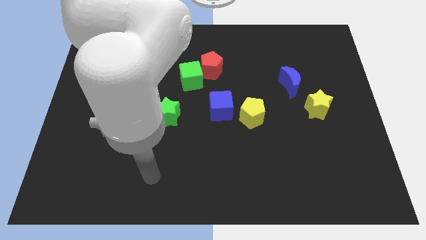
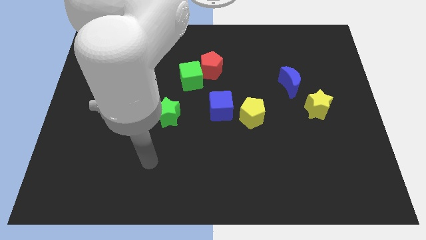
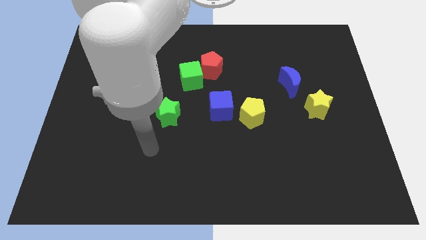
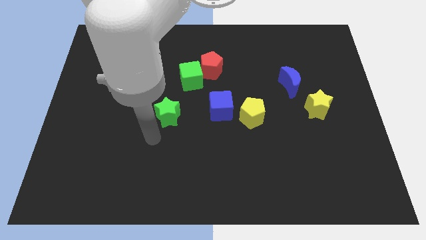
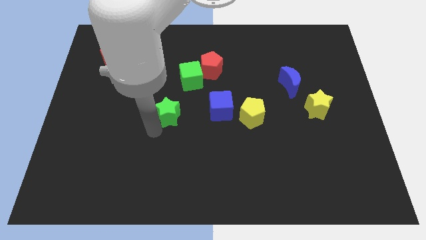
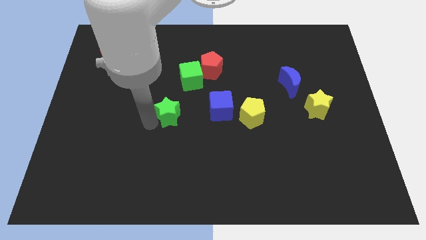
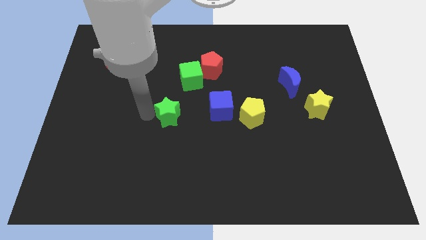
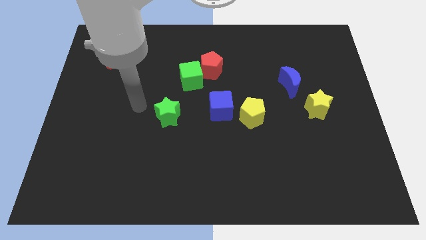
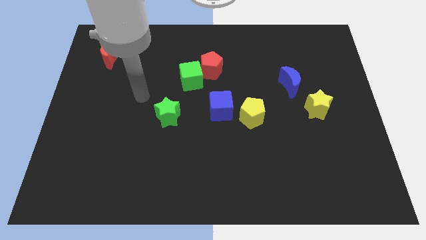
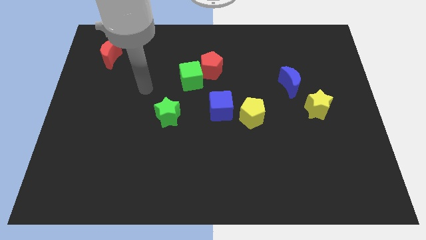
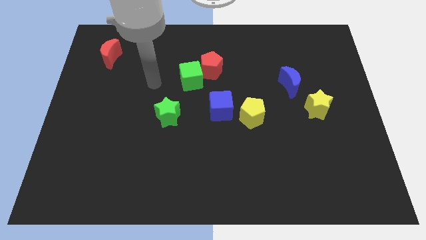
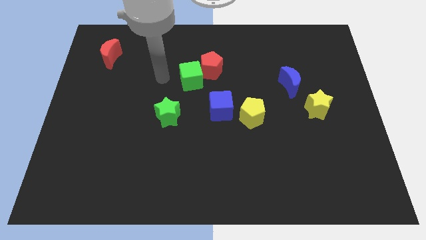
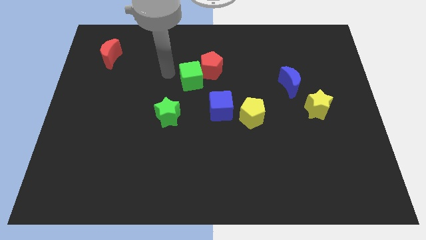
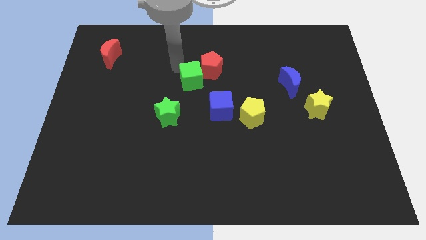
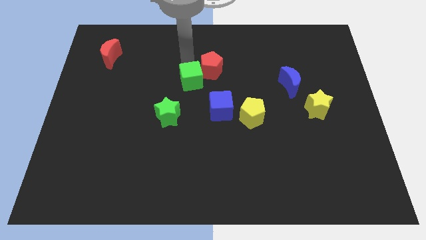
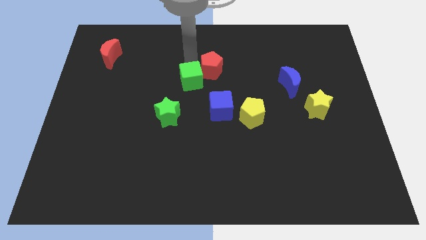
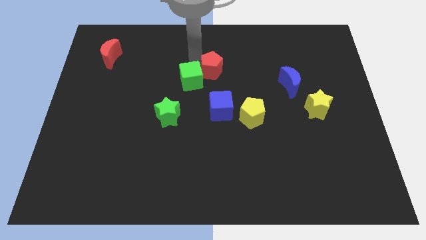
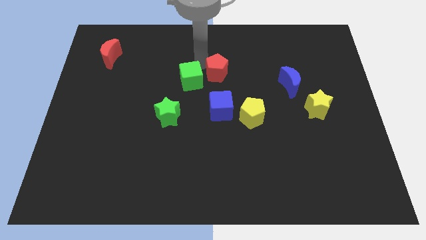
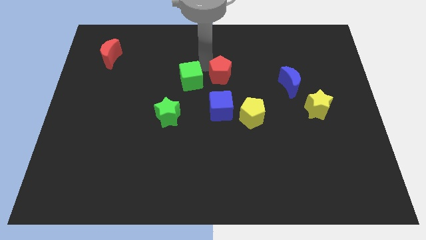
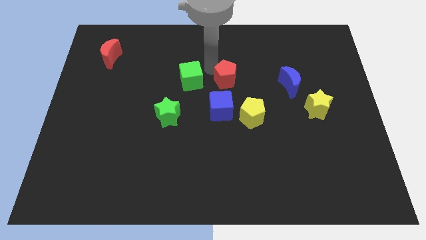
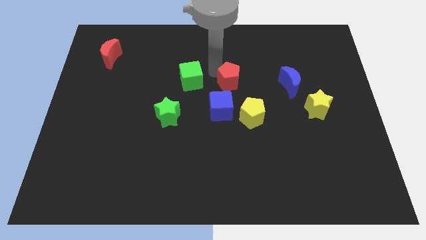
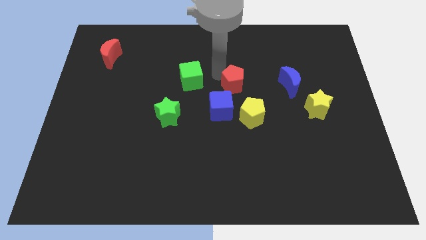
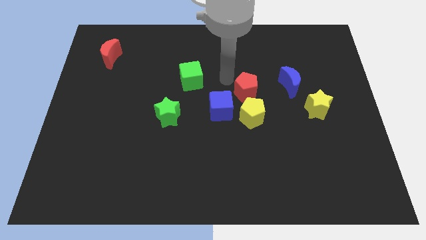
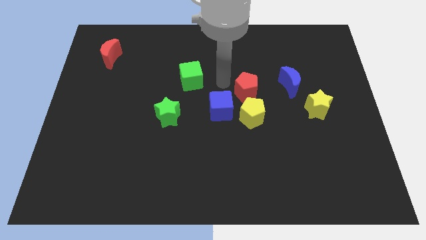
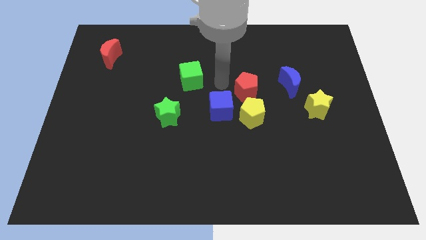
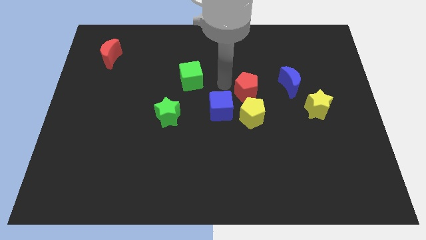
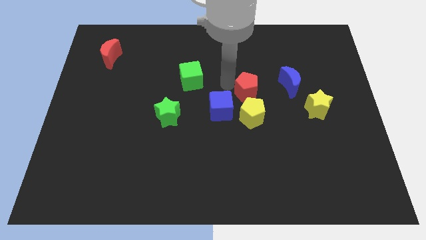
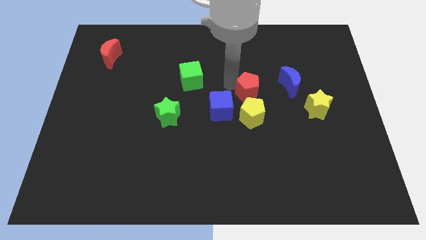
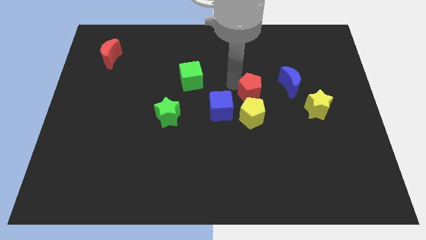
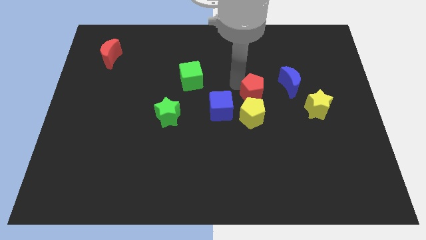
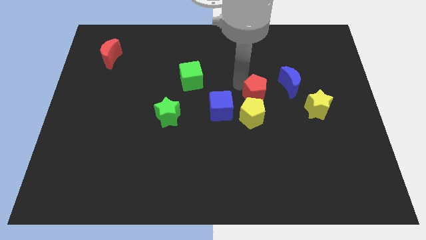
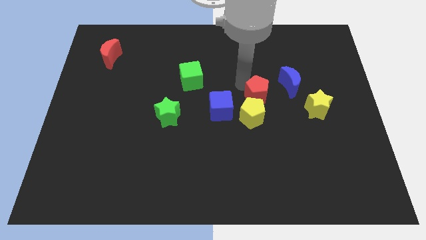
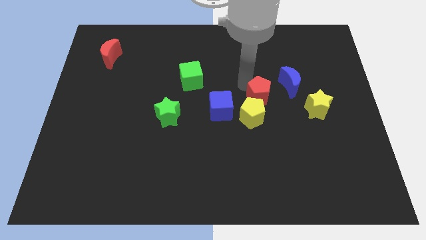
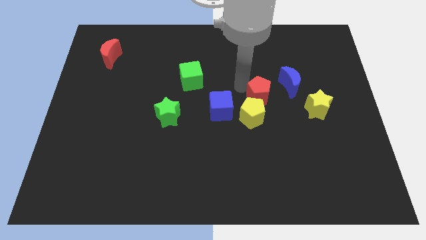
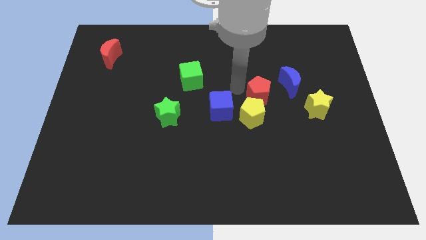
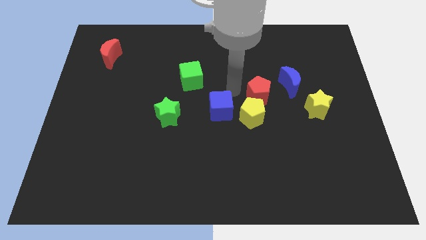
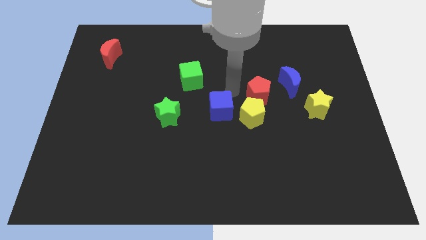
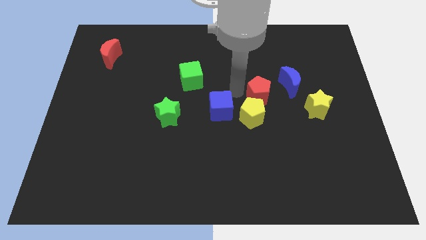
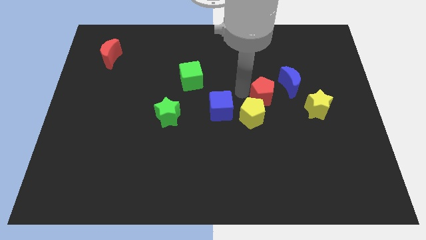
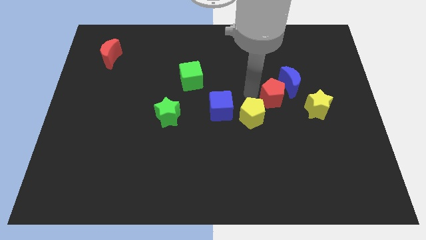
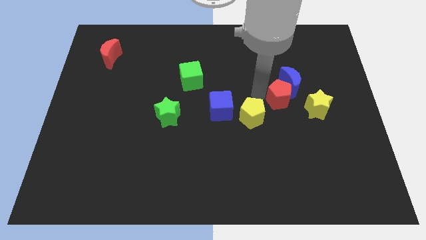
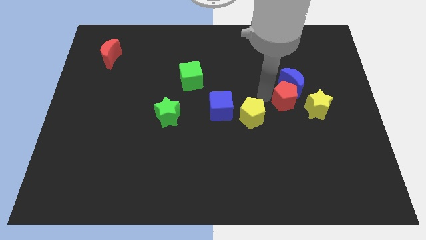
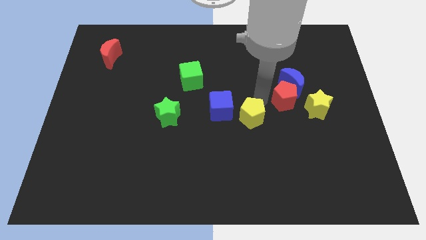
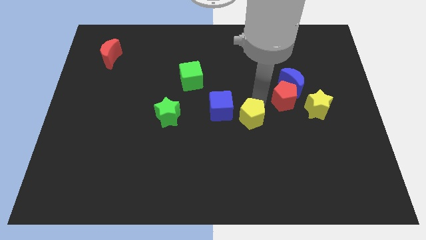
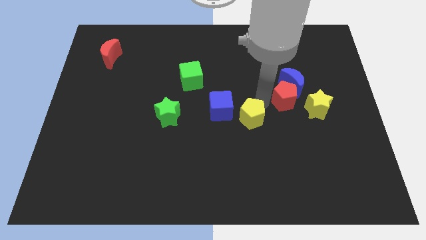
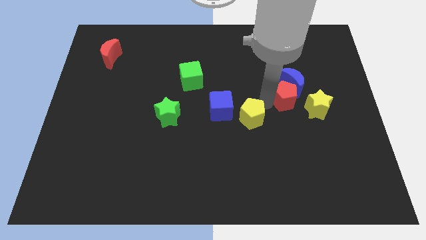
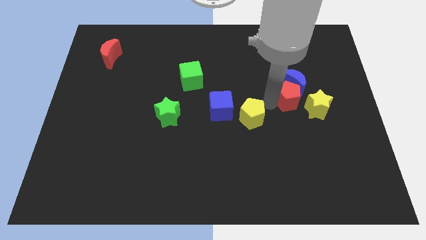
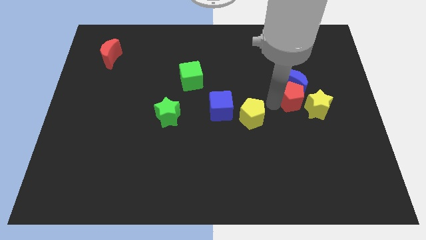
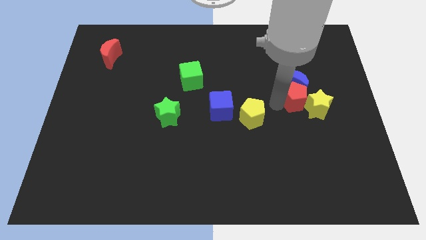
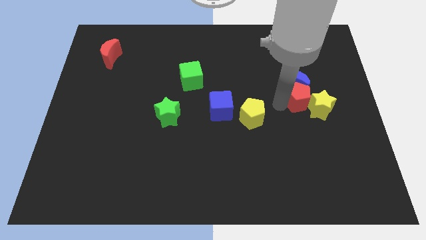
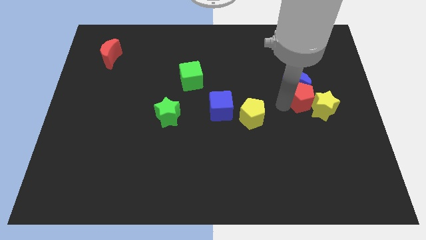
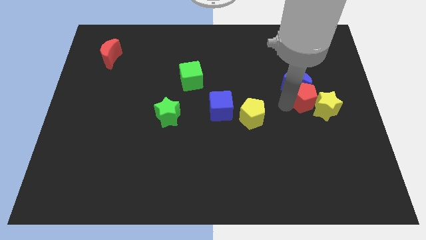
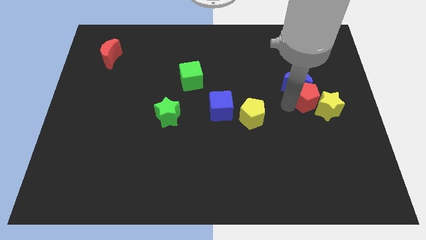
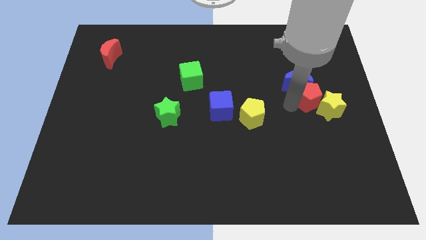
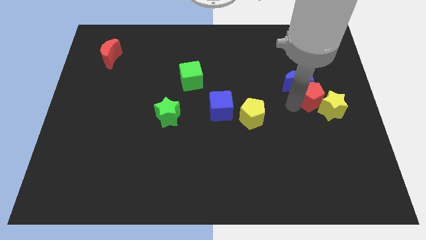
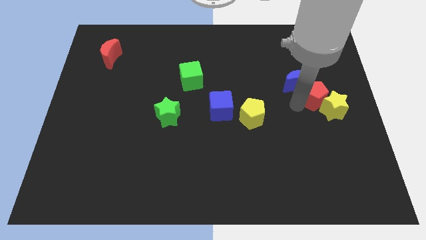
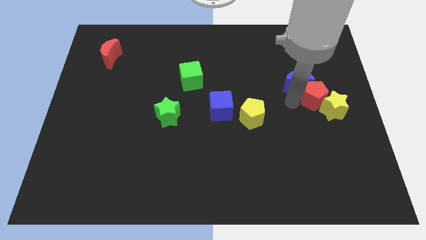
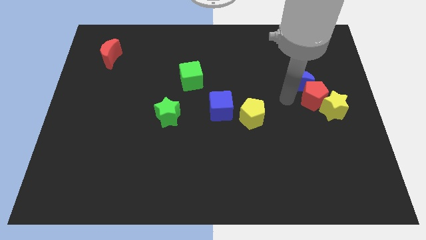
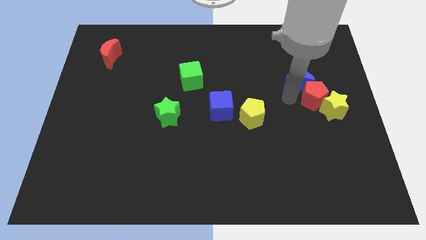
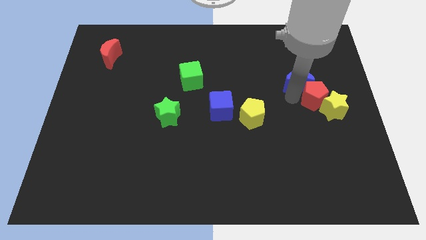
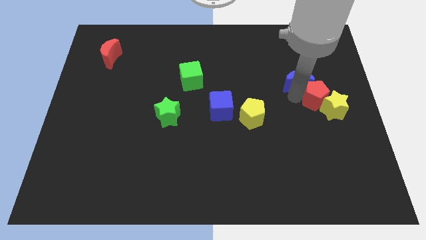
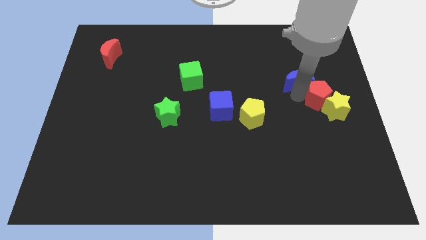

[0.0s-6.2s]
slide the red pentagon to the right side
